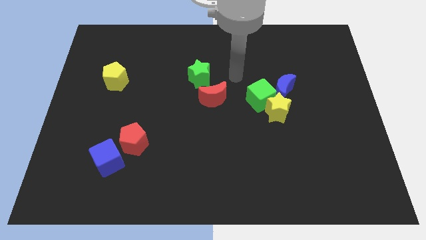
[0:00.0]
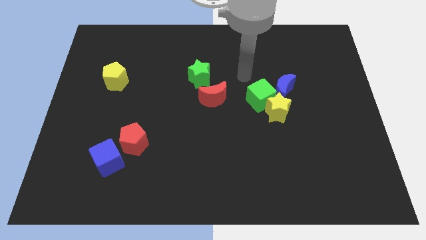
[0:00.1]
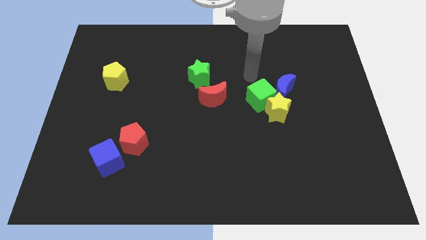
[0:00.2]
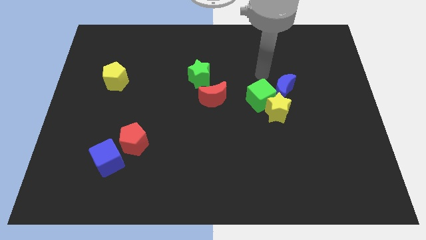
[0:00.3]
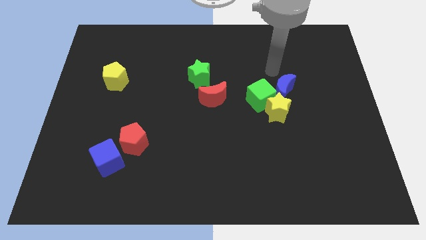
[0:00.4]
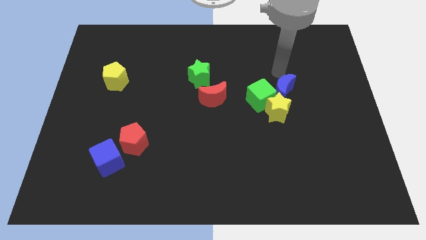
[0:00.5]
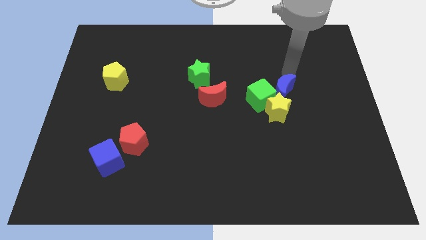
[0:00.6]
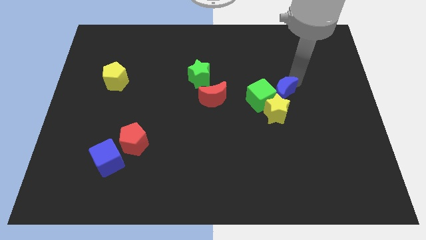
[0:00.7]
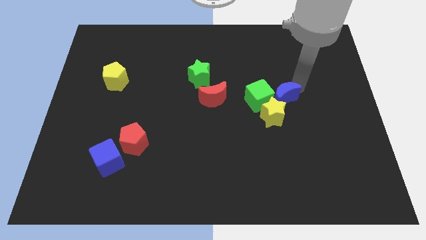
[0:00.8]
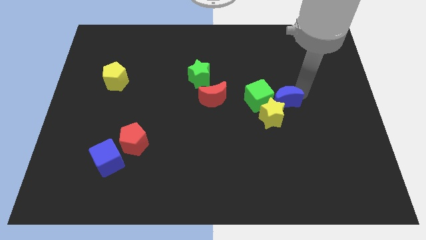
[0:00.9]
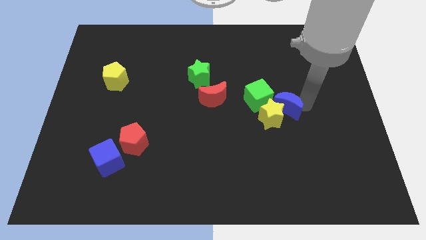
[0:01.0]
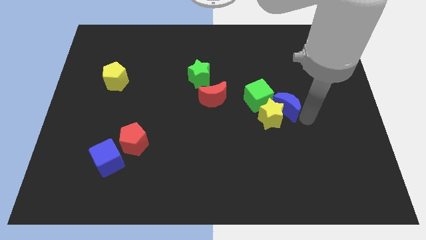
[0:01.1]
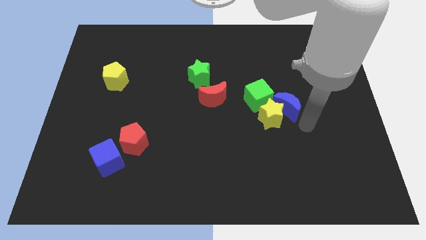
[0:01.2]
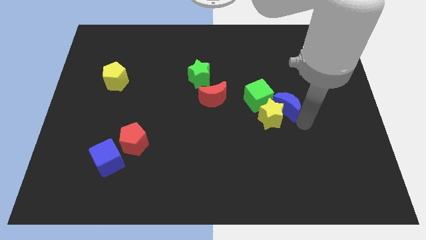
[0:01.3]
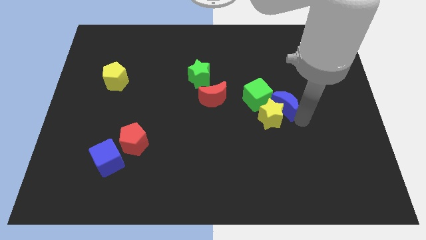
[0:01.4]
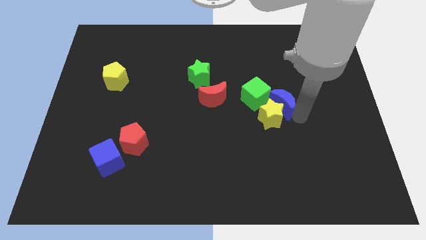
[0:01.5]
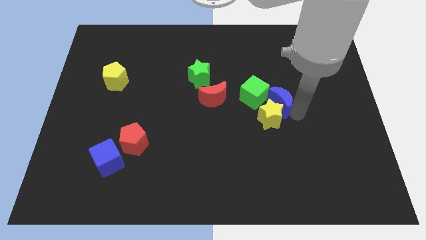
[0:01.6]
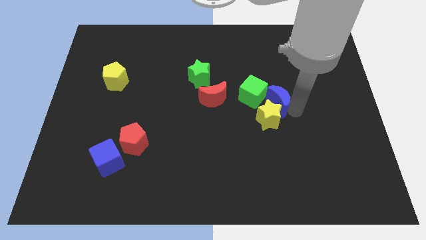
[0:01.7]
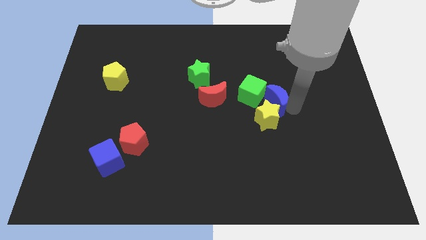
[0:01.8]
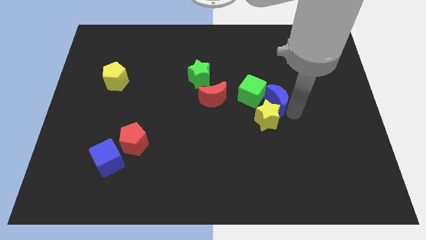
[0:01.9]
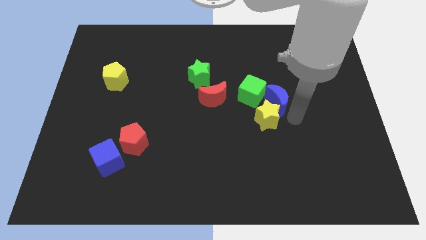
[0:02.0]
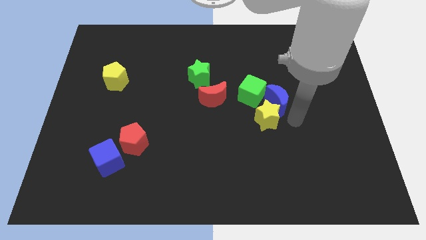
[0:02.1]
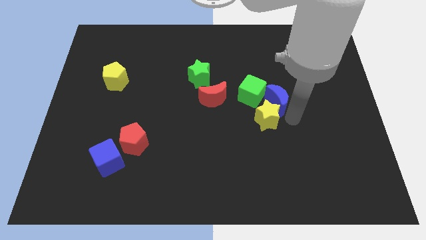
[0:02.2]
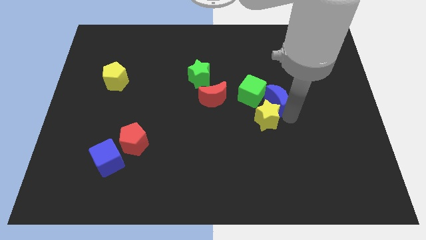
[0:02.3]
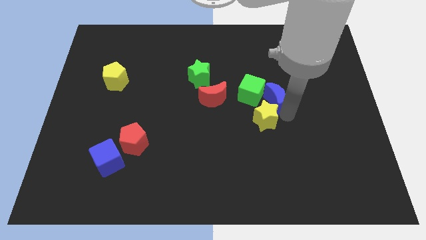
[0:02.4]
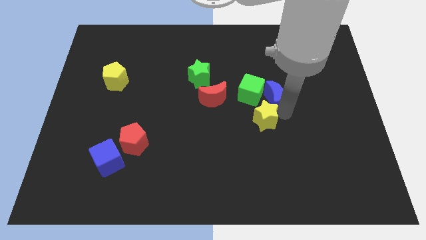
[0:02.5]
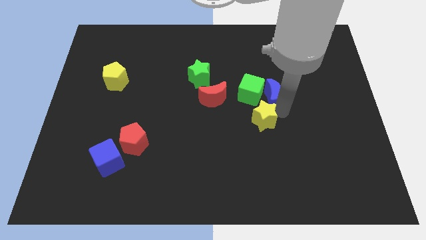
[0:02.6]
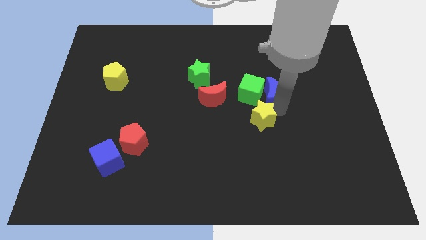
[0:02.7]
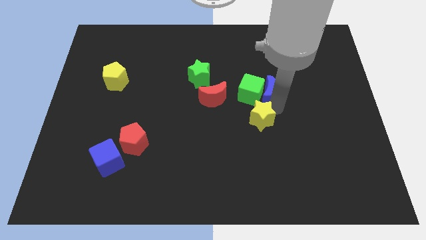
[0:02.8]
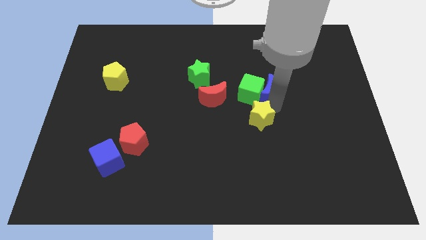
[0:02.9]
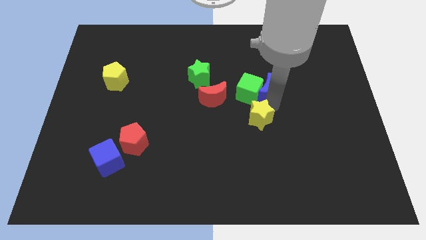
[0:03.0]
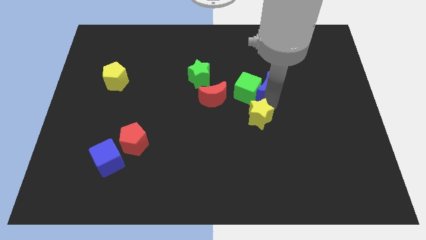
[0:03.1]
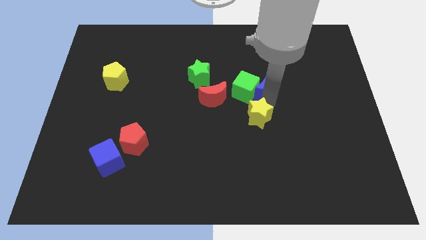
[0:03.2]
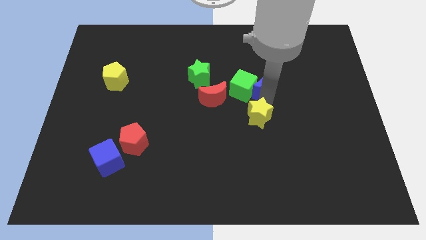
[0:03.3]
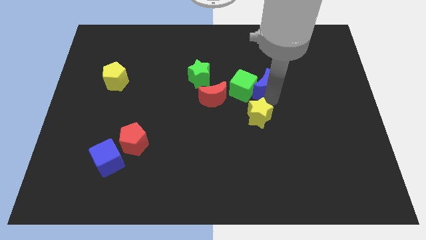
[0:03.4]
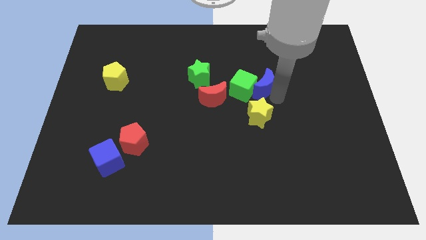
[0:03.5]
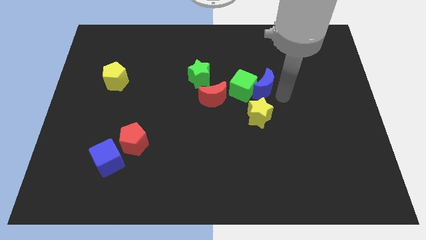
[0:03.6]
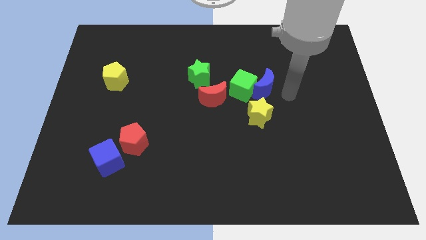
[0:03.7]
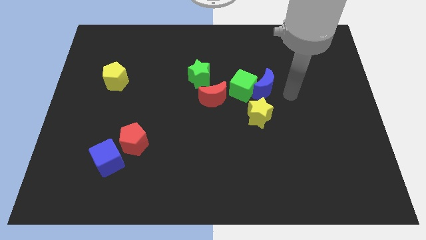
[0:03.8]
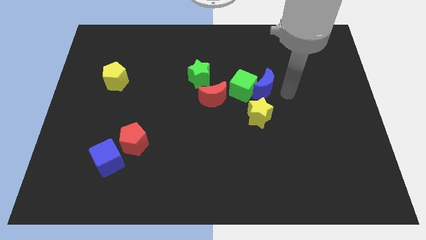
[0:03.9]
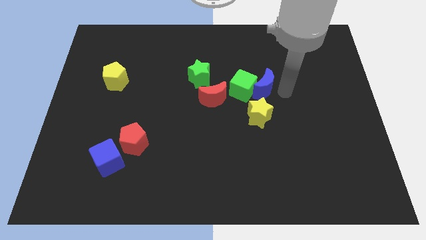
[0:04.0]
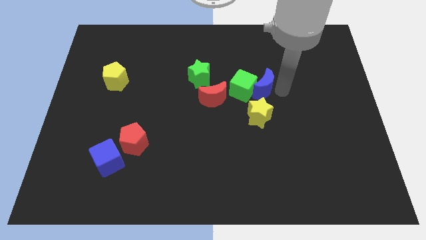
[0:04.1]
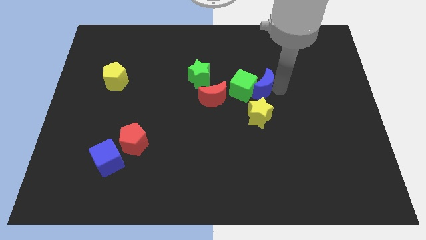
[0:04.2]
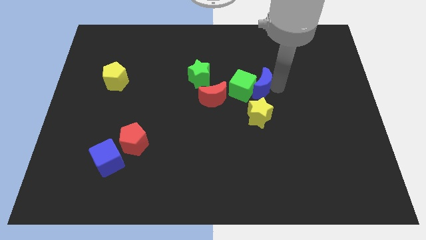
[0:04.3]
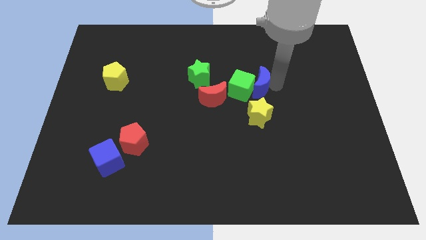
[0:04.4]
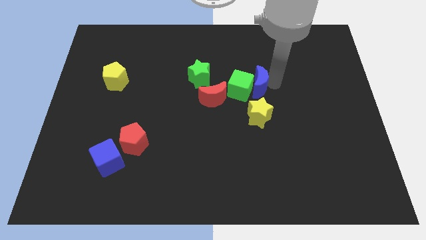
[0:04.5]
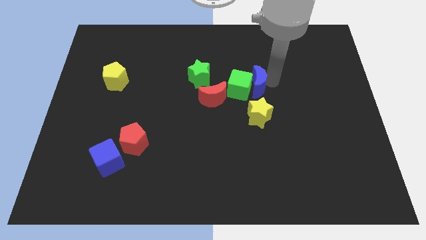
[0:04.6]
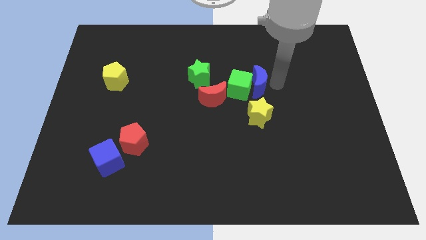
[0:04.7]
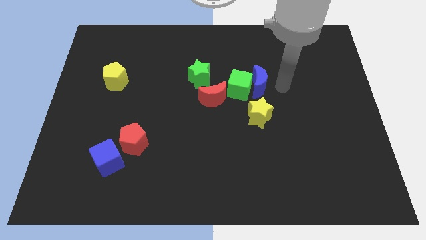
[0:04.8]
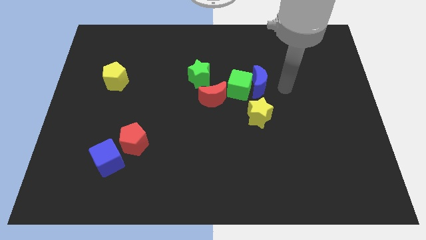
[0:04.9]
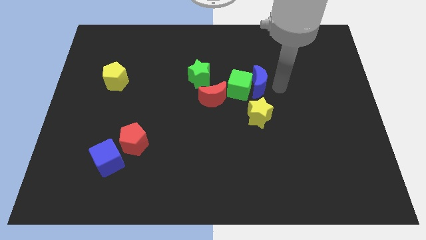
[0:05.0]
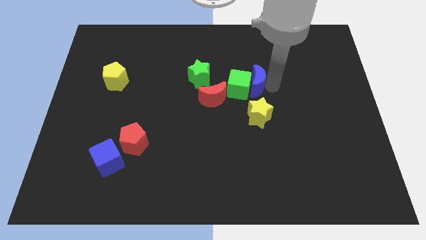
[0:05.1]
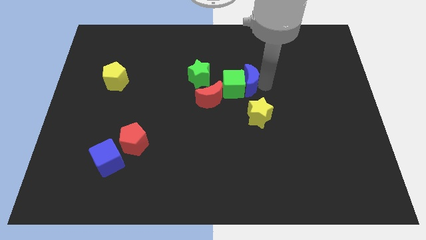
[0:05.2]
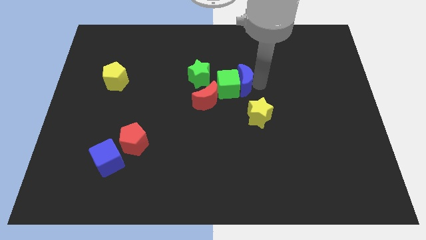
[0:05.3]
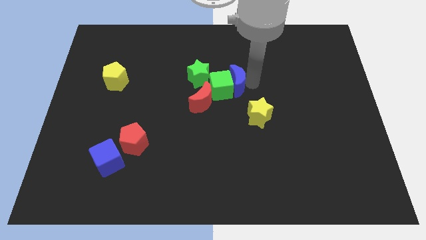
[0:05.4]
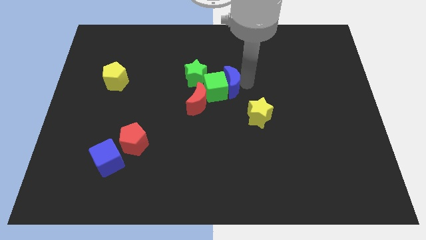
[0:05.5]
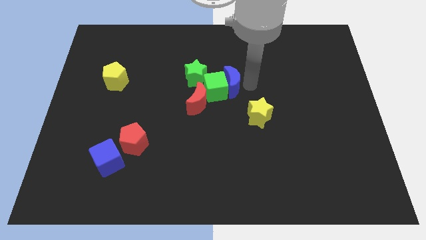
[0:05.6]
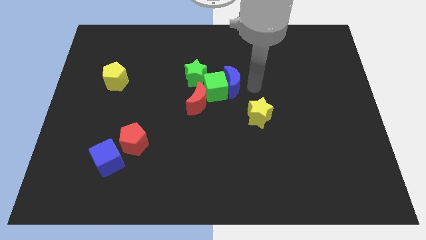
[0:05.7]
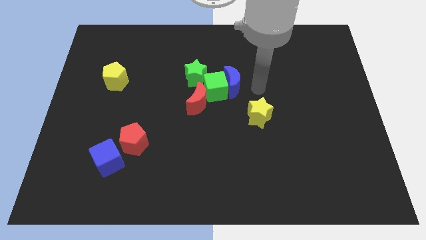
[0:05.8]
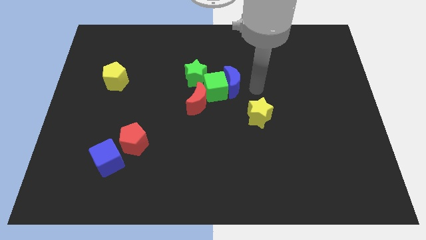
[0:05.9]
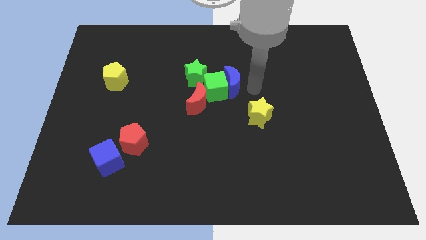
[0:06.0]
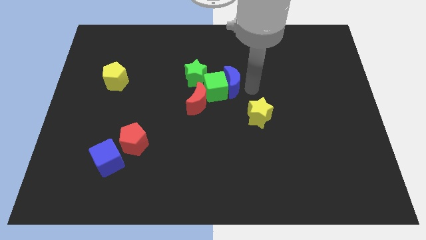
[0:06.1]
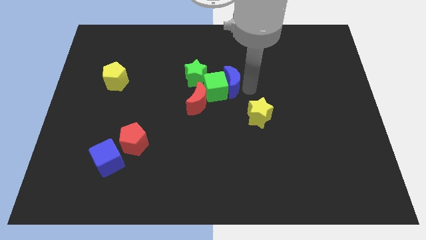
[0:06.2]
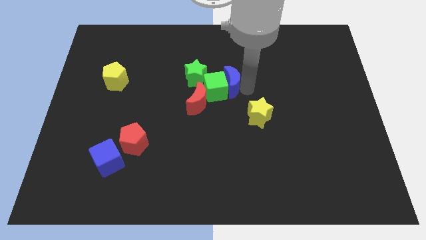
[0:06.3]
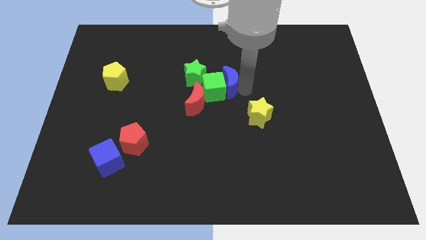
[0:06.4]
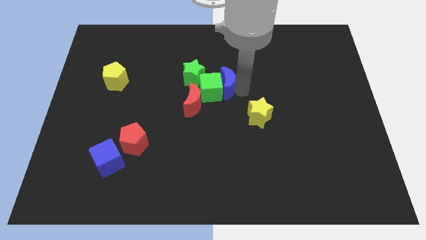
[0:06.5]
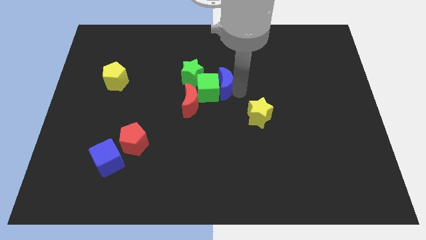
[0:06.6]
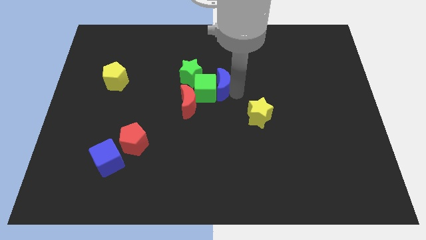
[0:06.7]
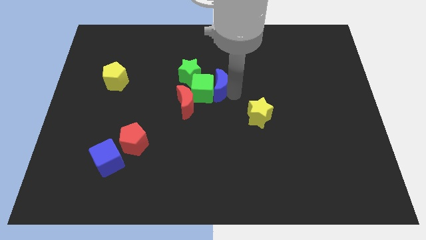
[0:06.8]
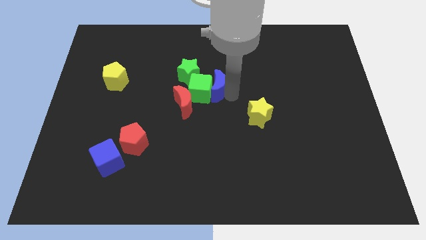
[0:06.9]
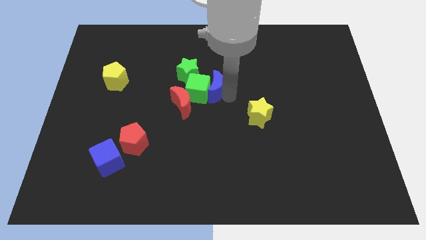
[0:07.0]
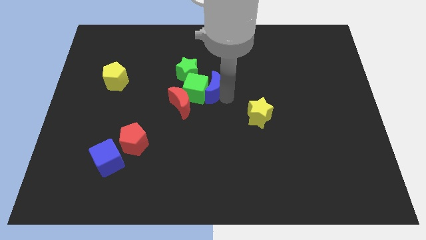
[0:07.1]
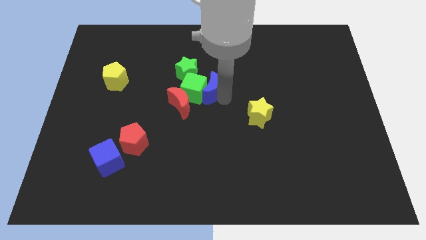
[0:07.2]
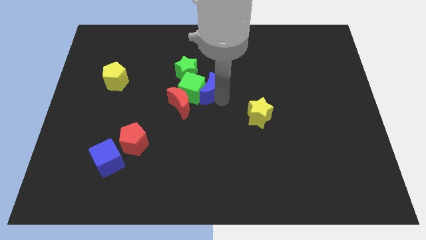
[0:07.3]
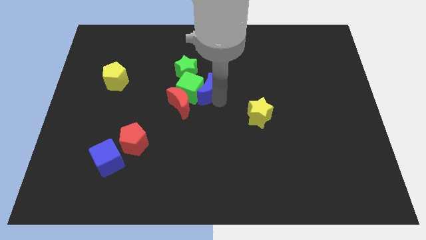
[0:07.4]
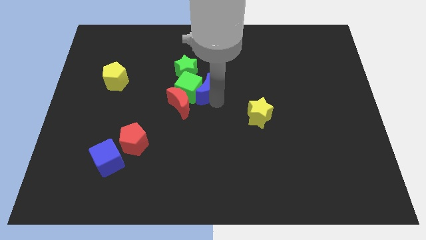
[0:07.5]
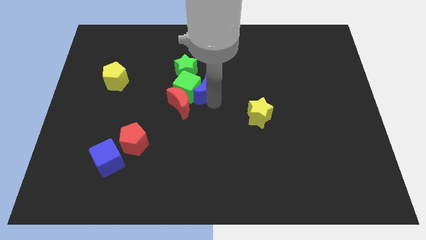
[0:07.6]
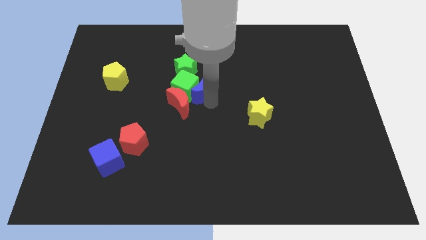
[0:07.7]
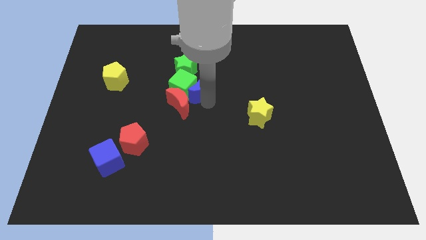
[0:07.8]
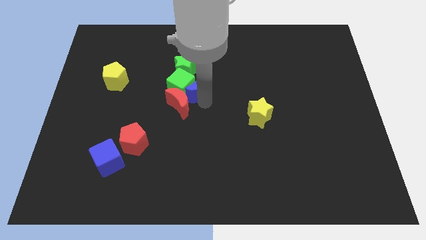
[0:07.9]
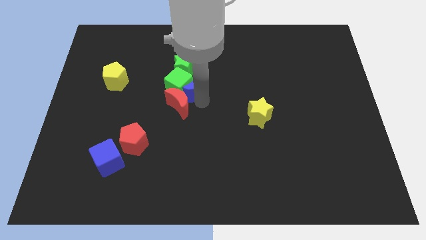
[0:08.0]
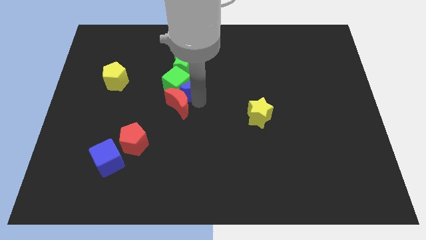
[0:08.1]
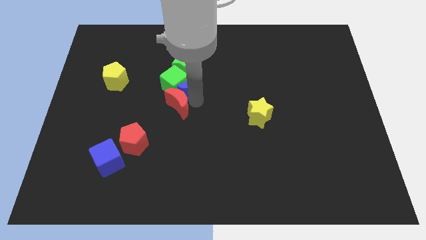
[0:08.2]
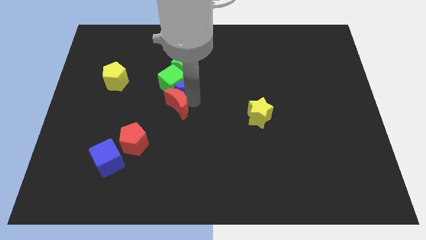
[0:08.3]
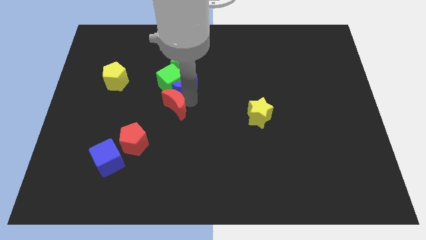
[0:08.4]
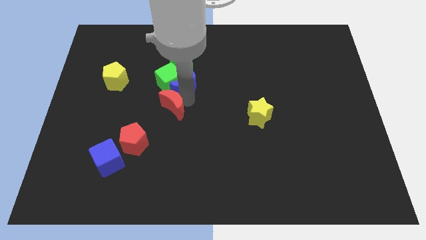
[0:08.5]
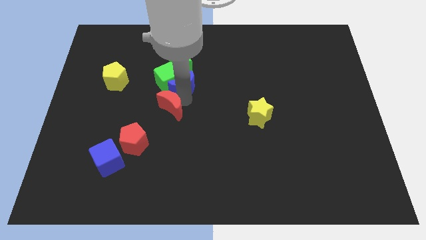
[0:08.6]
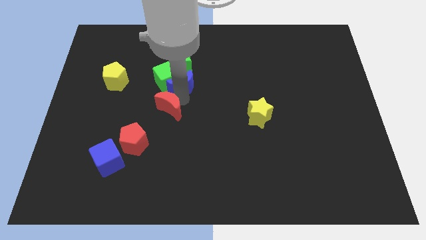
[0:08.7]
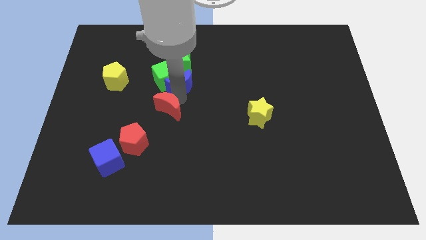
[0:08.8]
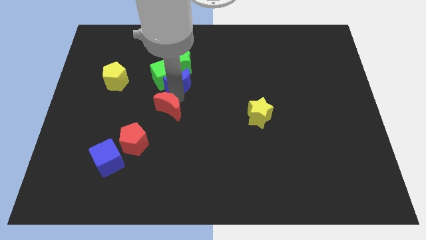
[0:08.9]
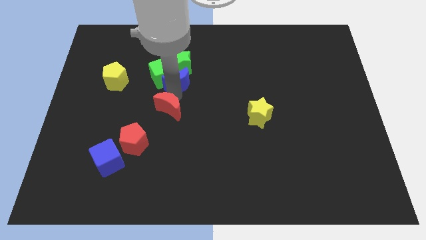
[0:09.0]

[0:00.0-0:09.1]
push the blue moon to the green star
